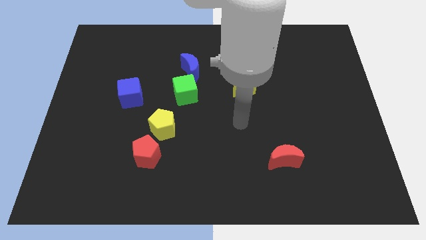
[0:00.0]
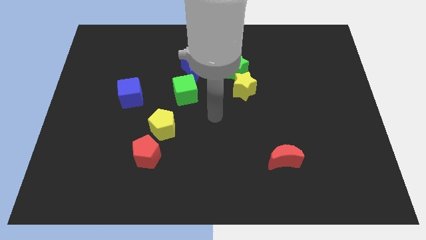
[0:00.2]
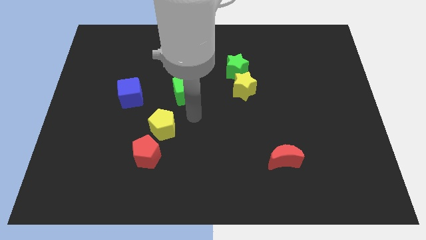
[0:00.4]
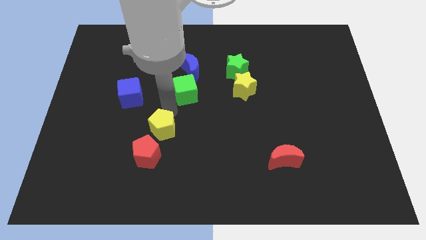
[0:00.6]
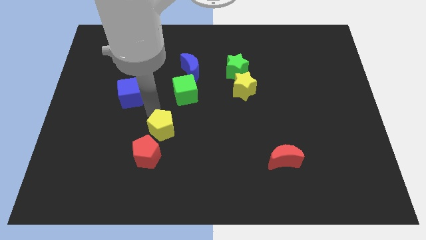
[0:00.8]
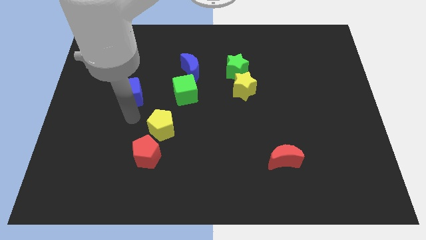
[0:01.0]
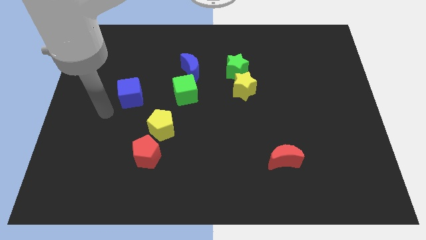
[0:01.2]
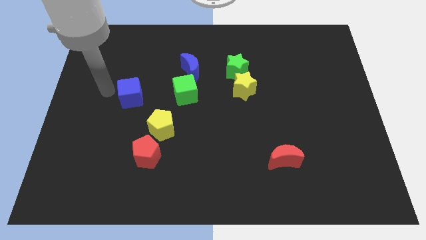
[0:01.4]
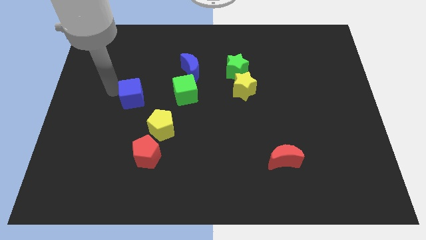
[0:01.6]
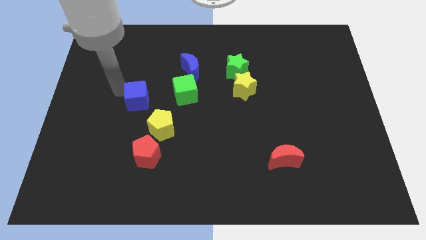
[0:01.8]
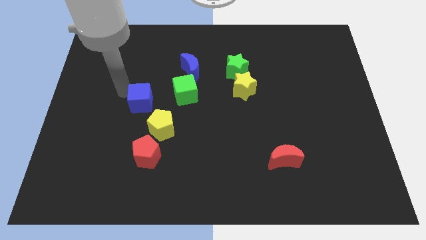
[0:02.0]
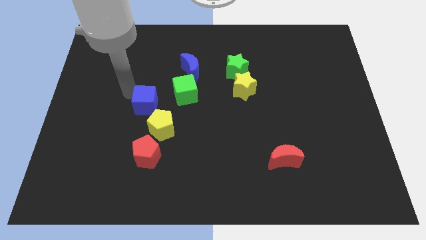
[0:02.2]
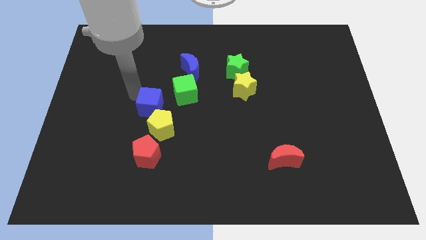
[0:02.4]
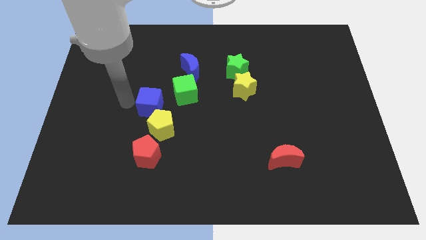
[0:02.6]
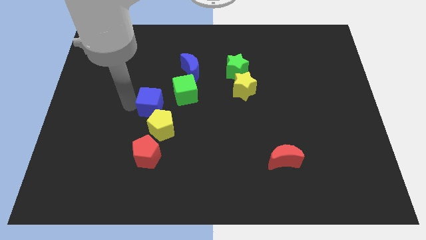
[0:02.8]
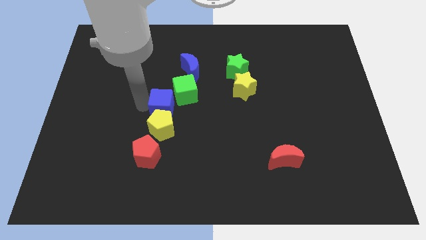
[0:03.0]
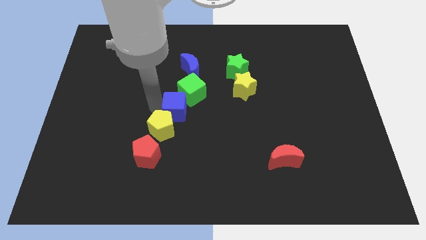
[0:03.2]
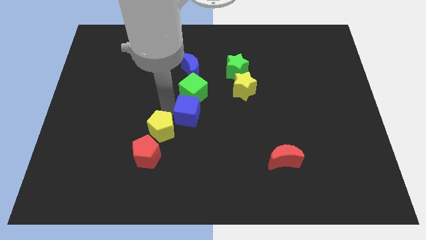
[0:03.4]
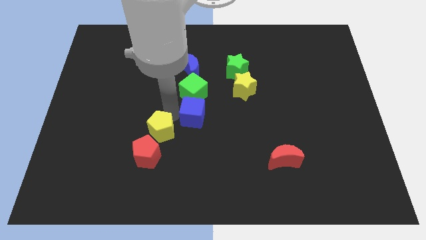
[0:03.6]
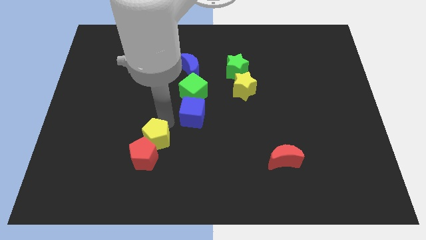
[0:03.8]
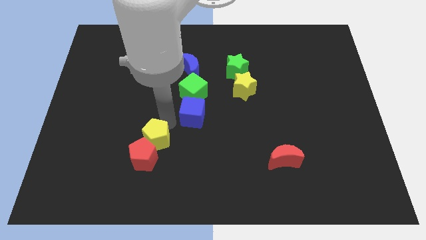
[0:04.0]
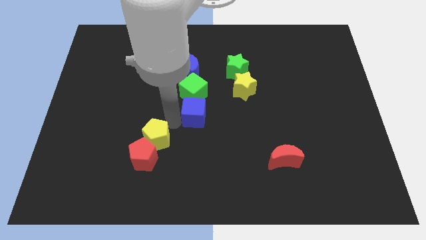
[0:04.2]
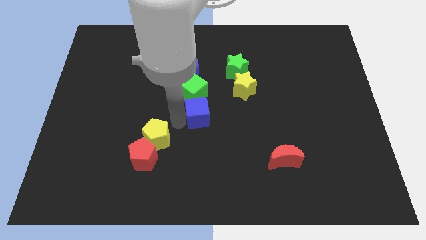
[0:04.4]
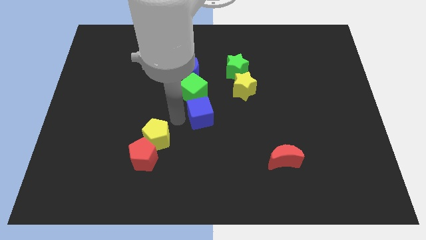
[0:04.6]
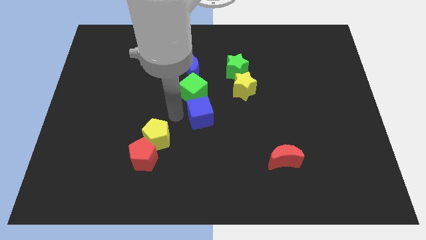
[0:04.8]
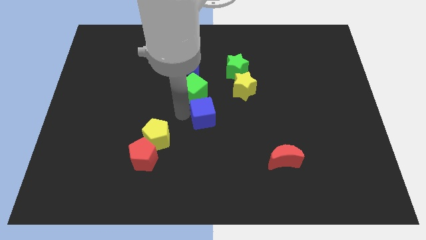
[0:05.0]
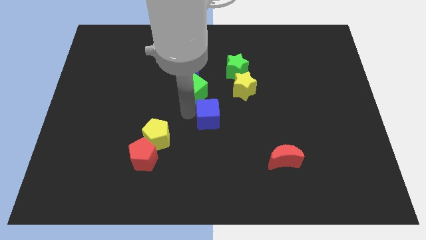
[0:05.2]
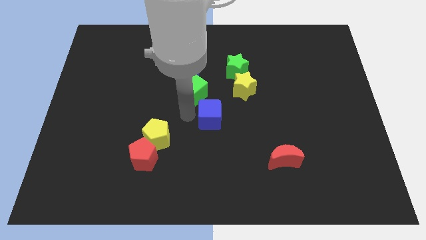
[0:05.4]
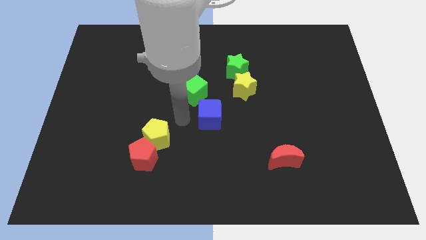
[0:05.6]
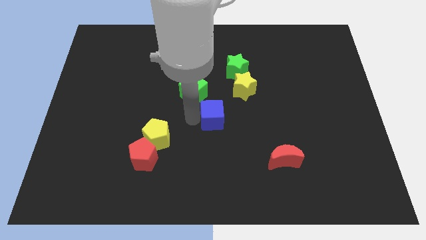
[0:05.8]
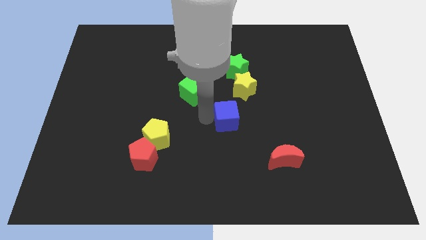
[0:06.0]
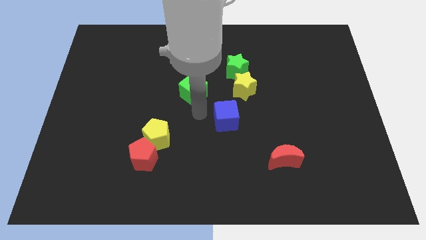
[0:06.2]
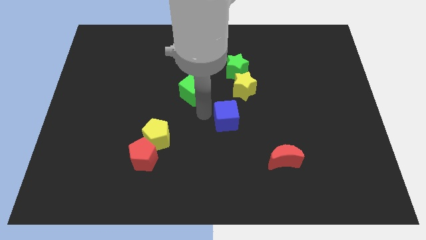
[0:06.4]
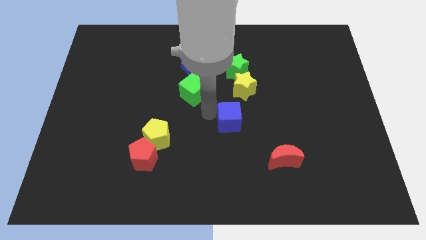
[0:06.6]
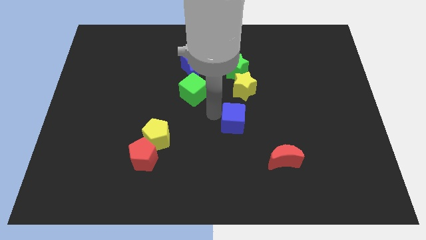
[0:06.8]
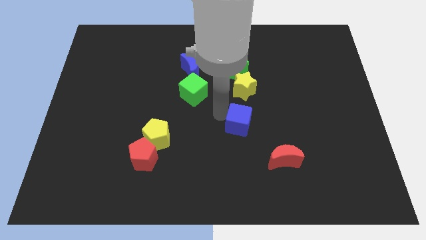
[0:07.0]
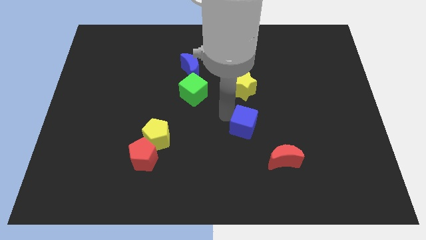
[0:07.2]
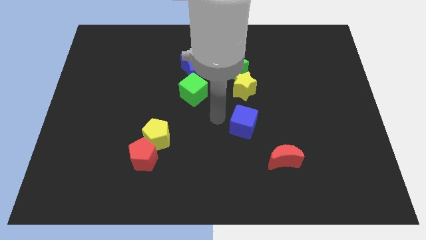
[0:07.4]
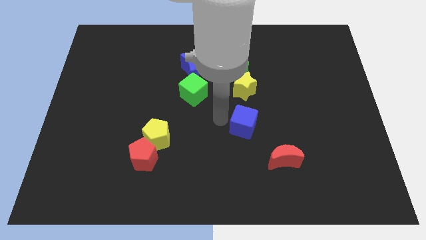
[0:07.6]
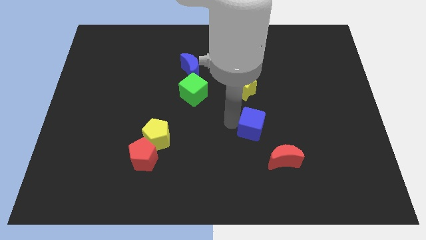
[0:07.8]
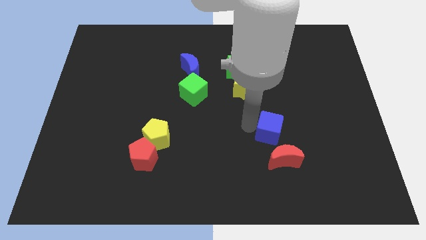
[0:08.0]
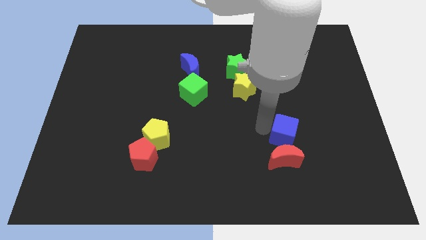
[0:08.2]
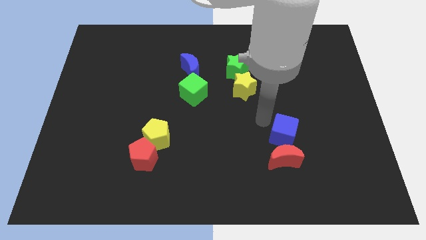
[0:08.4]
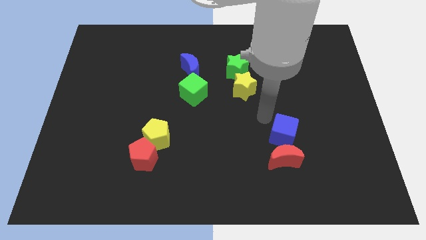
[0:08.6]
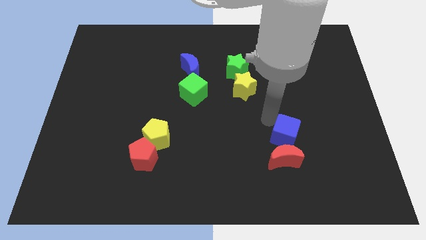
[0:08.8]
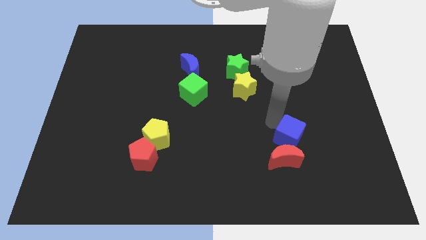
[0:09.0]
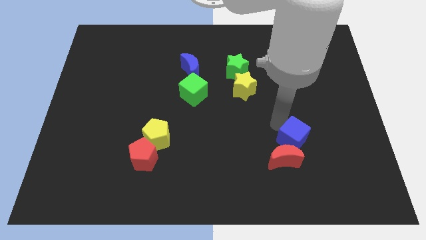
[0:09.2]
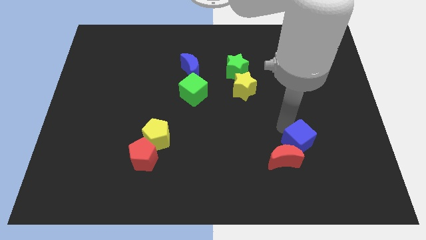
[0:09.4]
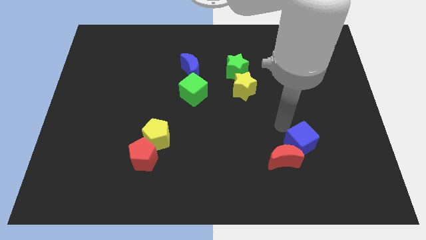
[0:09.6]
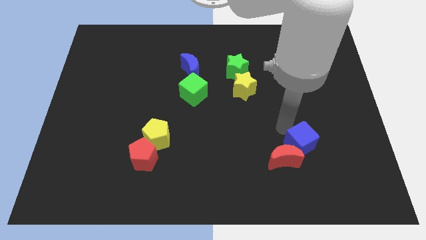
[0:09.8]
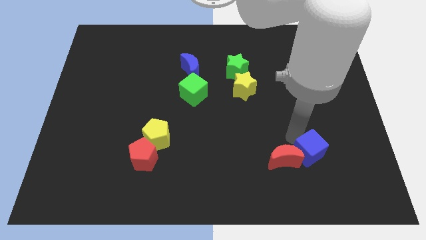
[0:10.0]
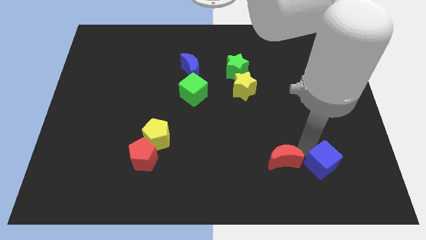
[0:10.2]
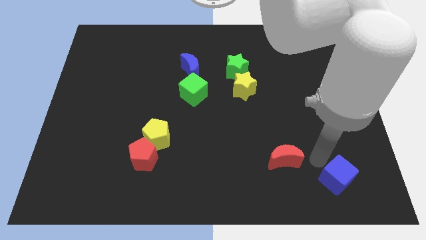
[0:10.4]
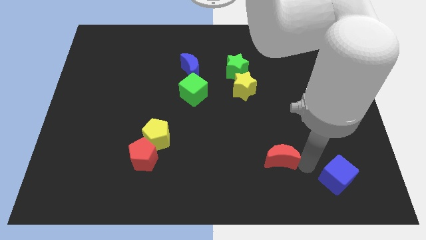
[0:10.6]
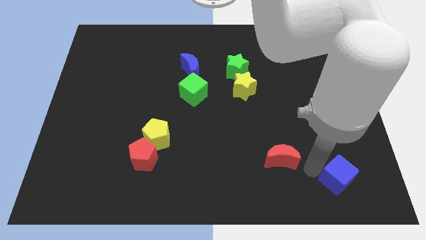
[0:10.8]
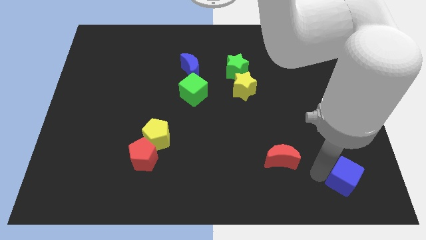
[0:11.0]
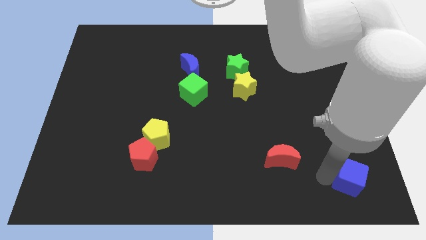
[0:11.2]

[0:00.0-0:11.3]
put the blue cube to the bottom right corner

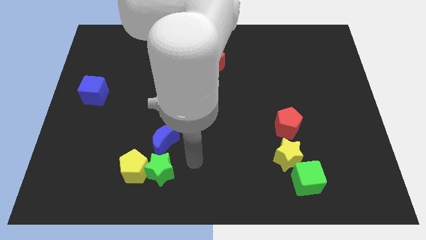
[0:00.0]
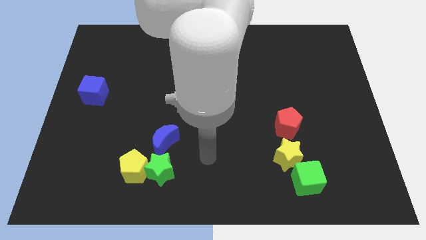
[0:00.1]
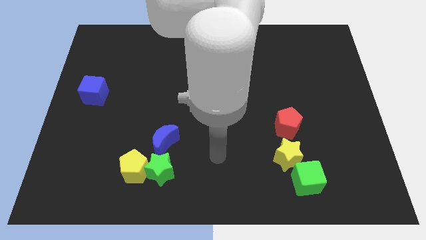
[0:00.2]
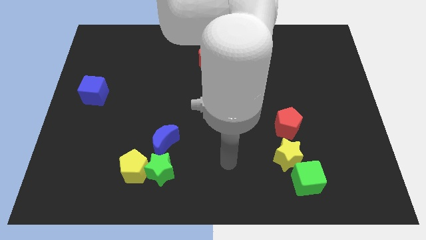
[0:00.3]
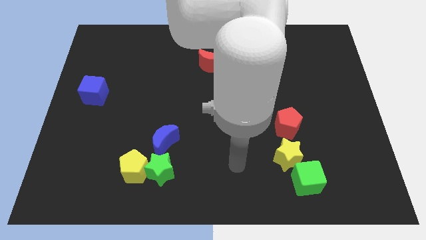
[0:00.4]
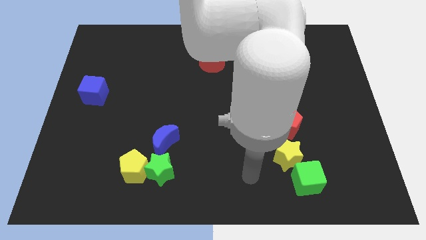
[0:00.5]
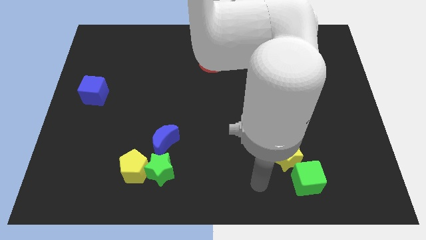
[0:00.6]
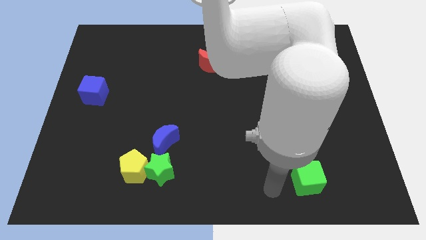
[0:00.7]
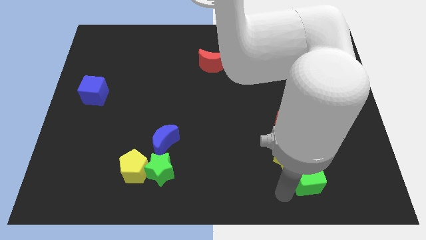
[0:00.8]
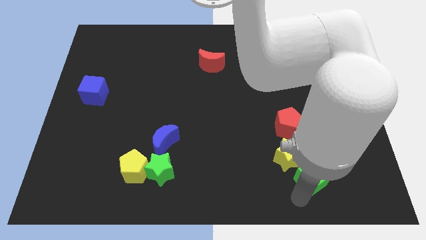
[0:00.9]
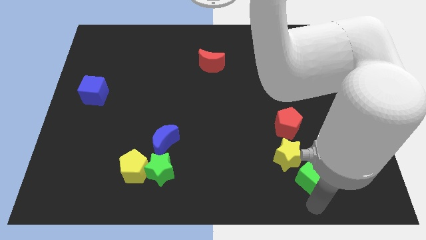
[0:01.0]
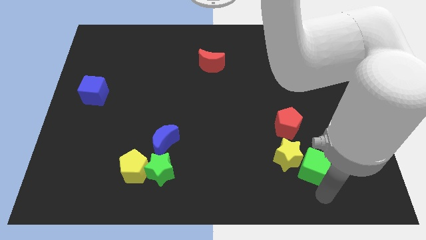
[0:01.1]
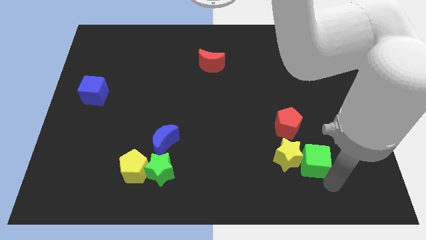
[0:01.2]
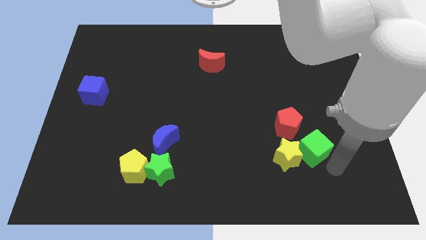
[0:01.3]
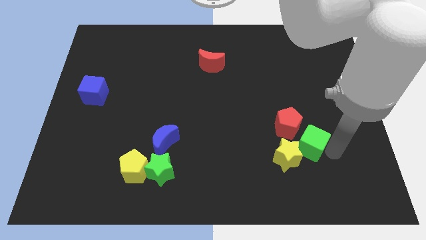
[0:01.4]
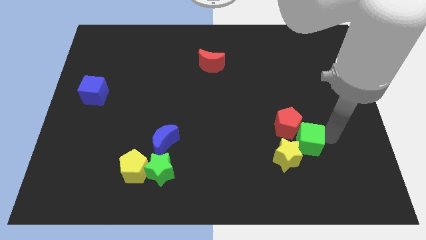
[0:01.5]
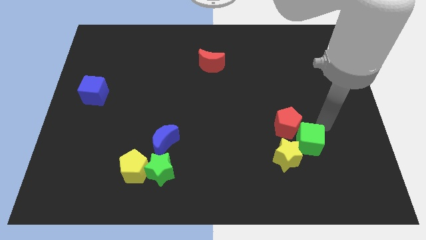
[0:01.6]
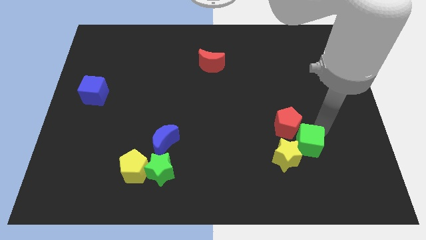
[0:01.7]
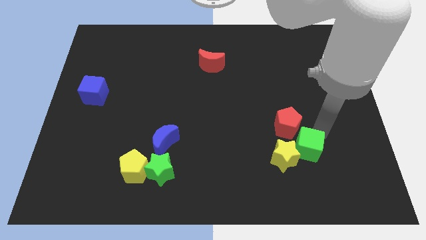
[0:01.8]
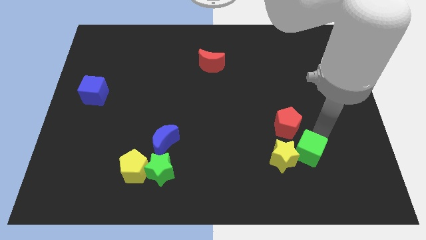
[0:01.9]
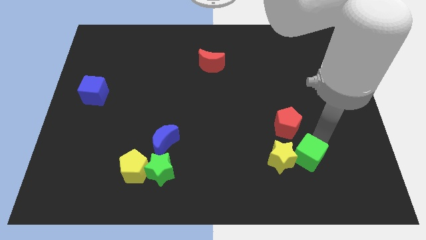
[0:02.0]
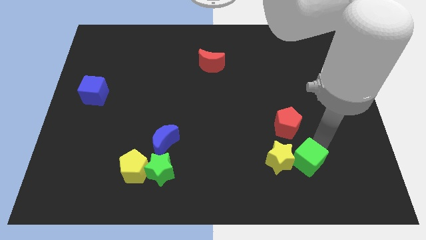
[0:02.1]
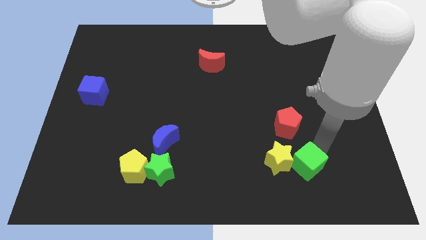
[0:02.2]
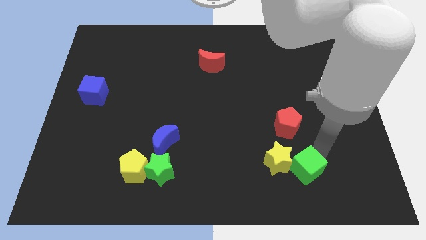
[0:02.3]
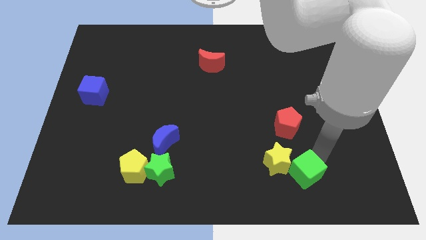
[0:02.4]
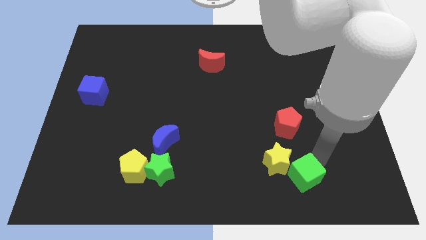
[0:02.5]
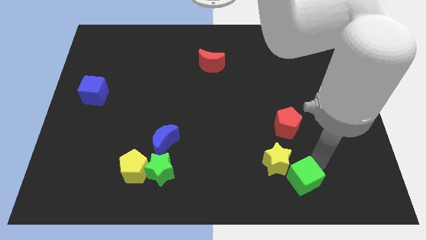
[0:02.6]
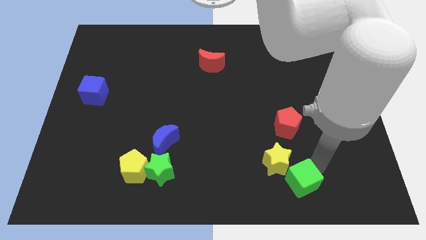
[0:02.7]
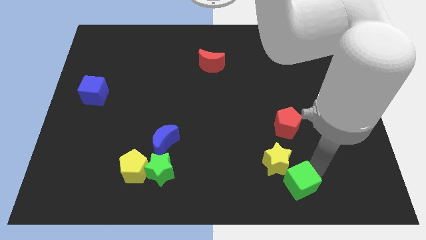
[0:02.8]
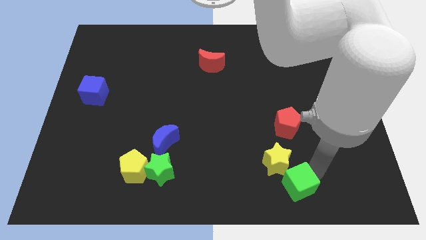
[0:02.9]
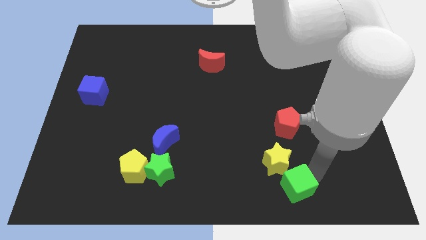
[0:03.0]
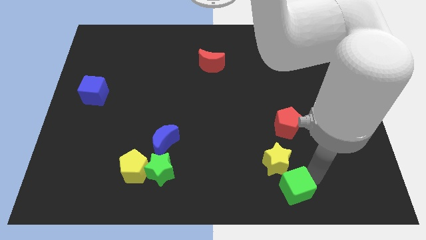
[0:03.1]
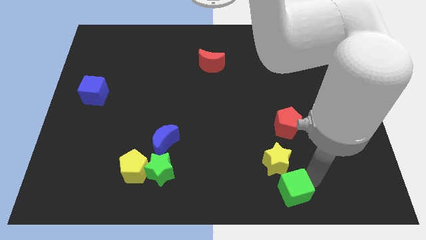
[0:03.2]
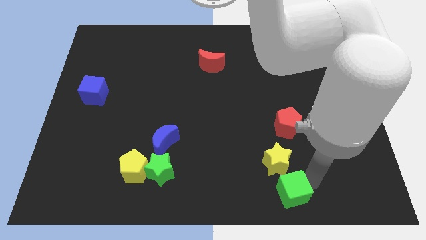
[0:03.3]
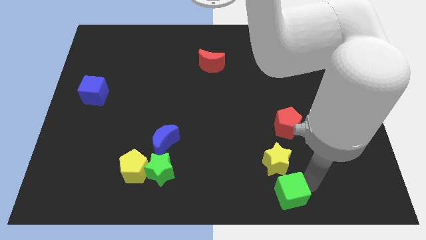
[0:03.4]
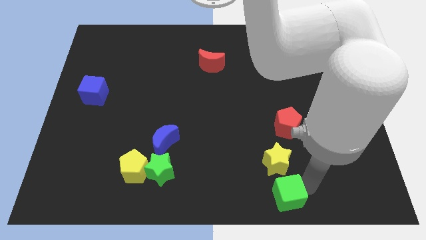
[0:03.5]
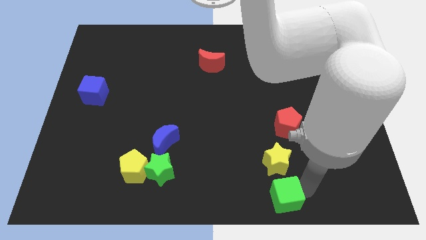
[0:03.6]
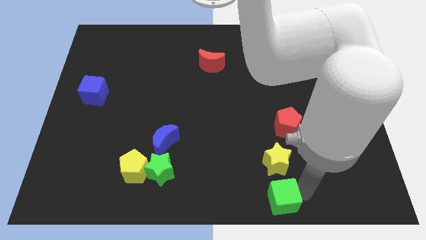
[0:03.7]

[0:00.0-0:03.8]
push the green cube to the bottom
